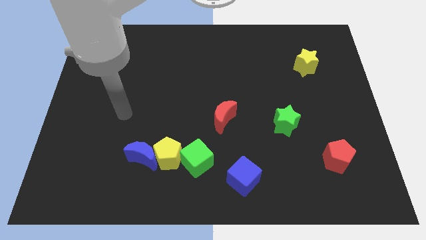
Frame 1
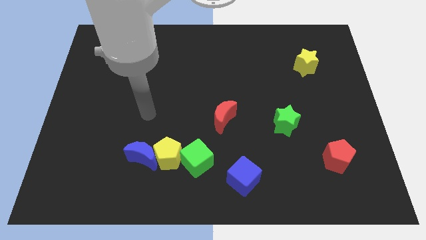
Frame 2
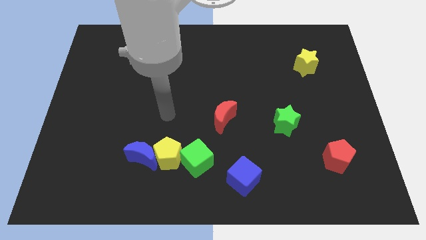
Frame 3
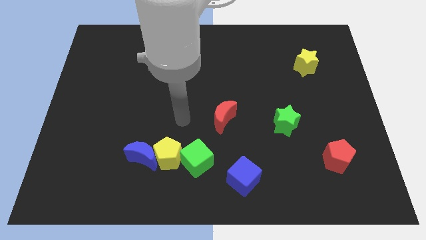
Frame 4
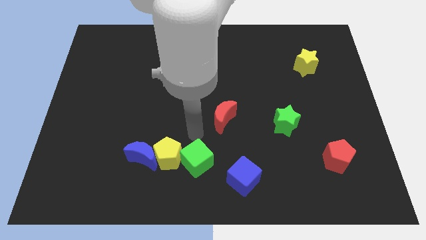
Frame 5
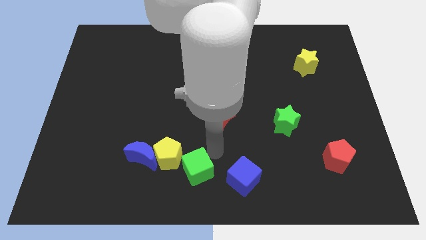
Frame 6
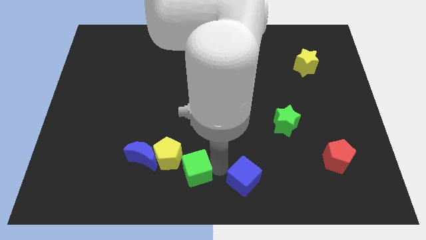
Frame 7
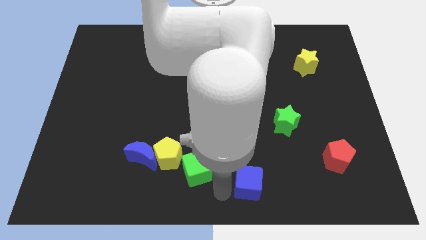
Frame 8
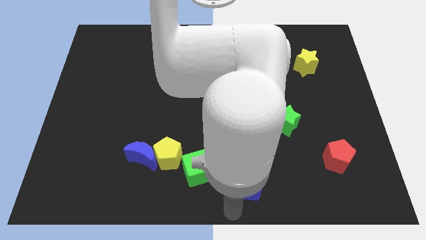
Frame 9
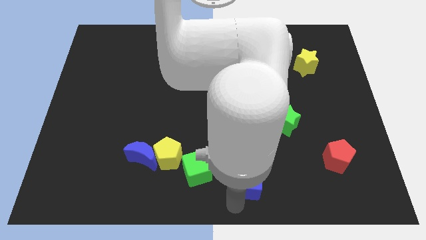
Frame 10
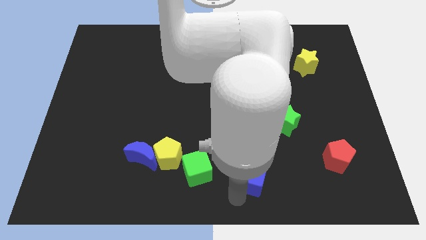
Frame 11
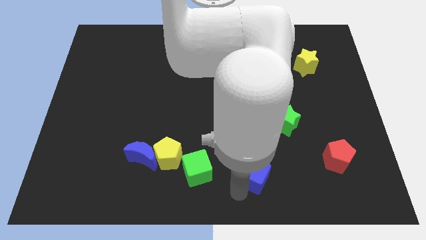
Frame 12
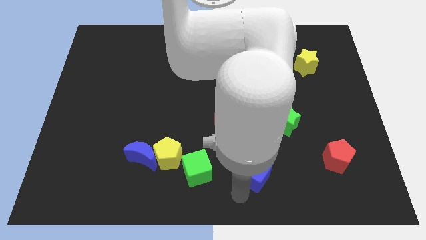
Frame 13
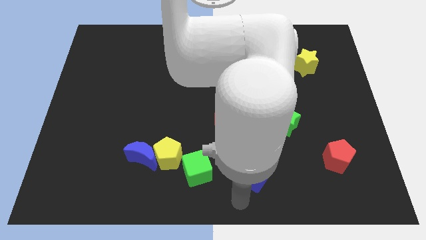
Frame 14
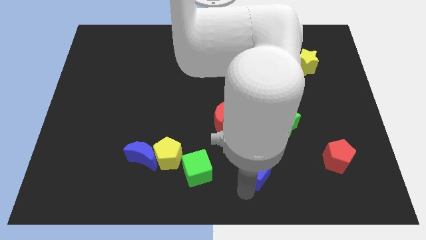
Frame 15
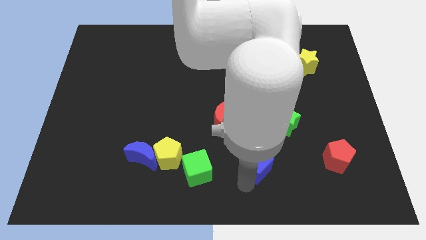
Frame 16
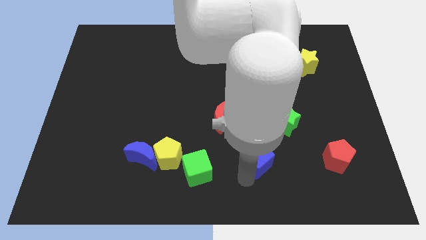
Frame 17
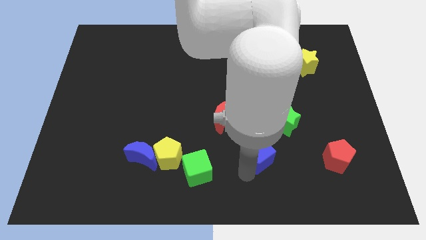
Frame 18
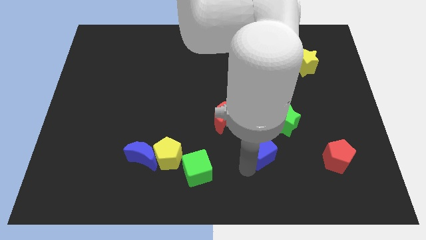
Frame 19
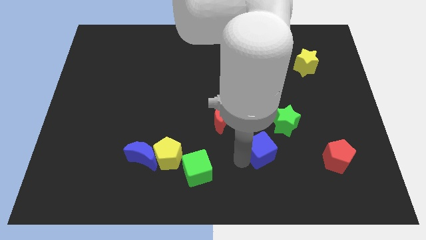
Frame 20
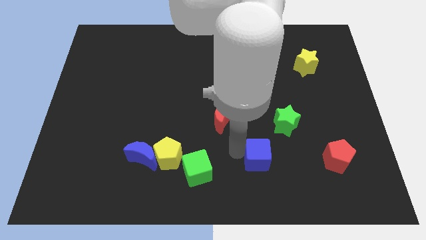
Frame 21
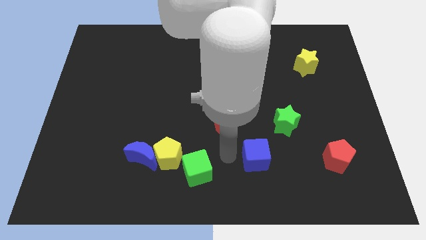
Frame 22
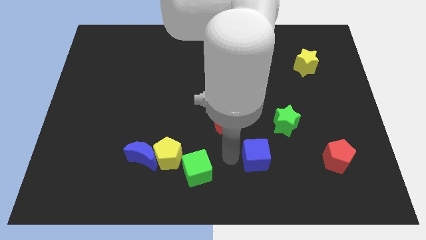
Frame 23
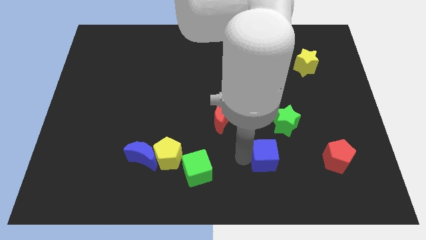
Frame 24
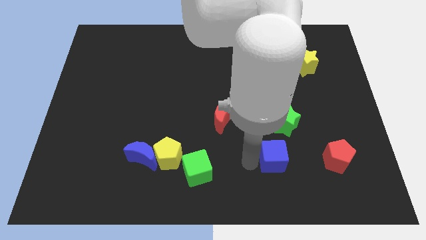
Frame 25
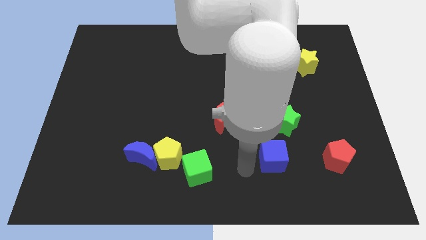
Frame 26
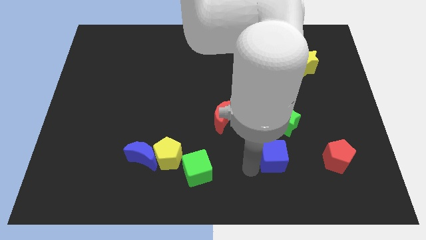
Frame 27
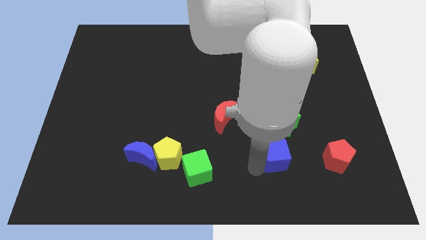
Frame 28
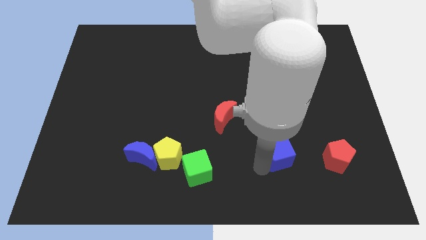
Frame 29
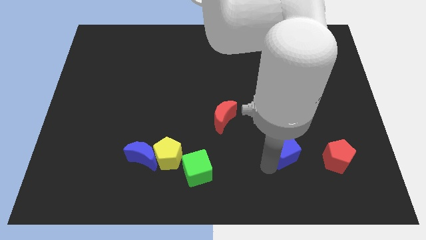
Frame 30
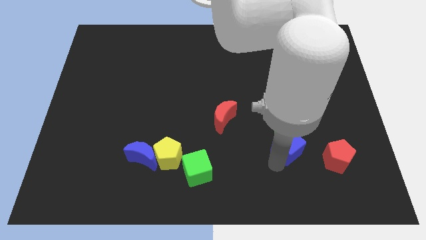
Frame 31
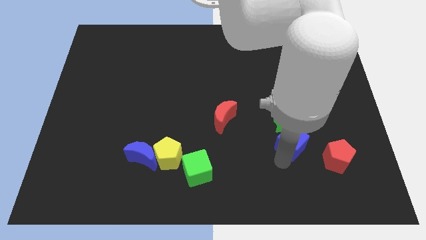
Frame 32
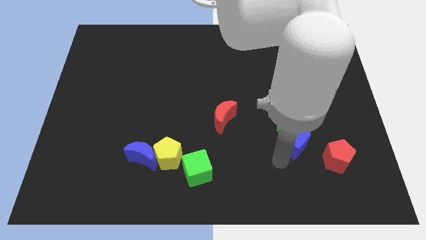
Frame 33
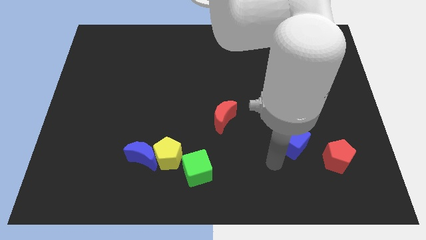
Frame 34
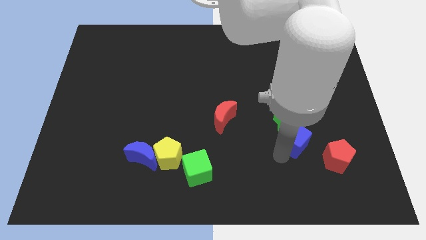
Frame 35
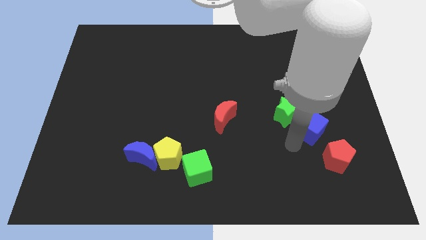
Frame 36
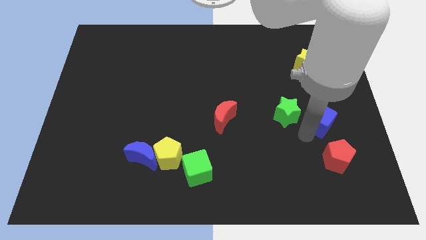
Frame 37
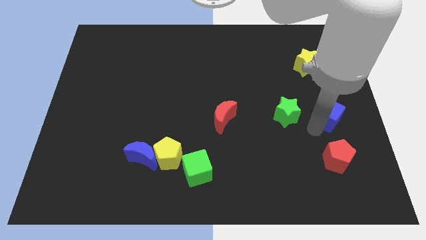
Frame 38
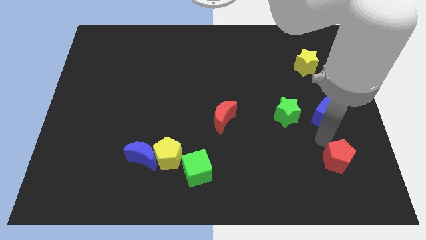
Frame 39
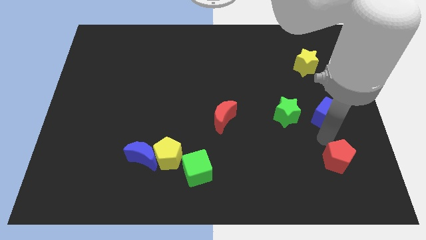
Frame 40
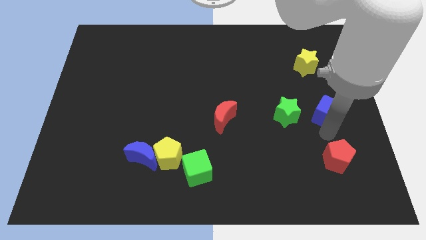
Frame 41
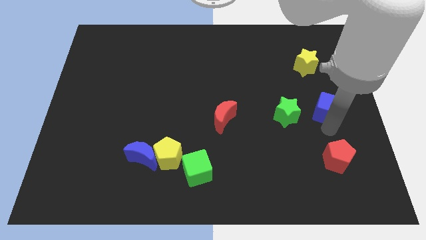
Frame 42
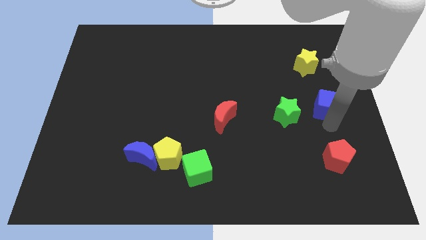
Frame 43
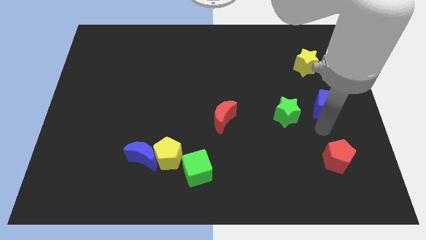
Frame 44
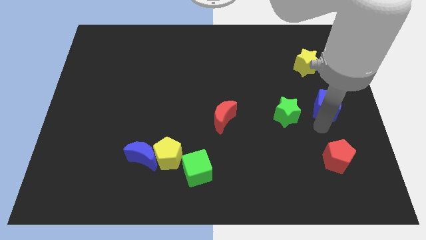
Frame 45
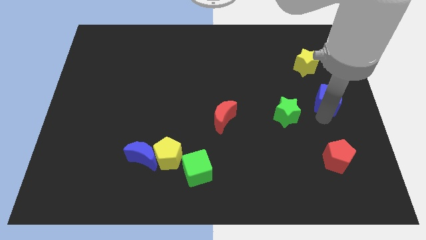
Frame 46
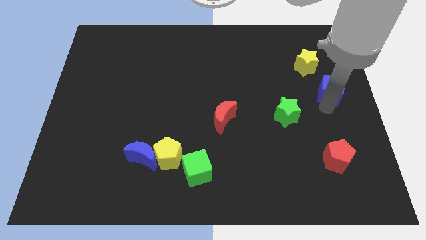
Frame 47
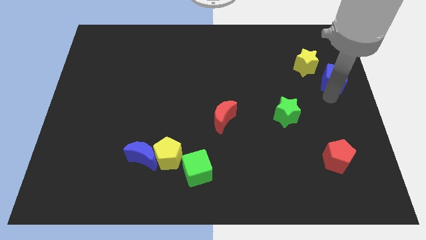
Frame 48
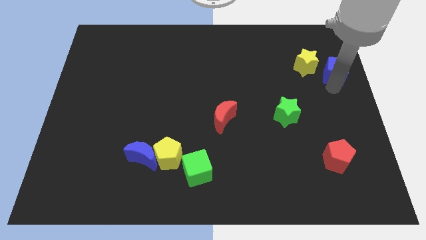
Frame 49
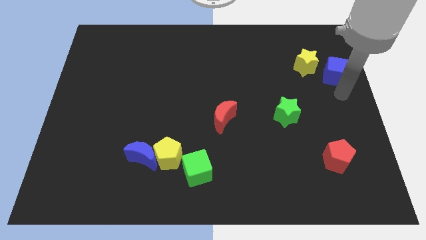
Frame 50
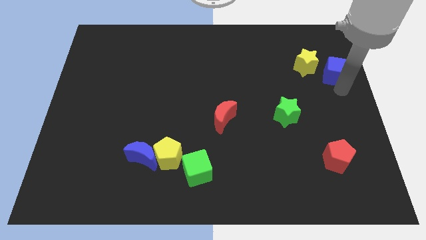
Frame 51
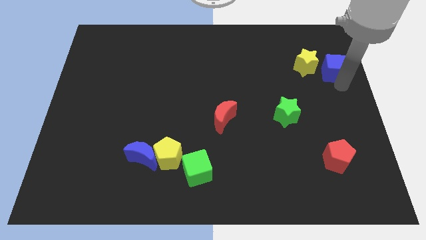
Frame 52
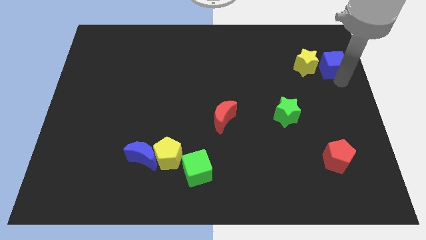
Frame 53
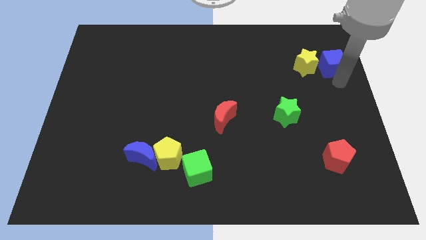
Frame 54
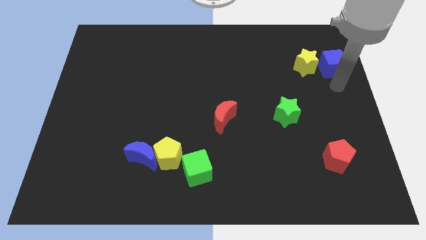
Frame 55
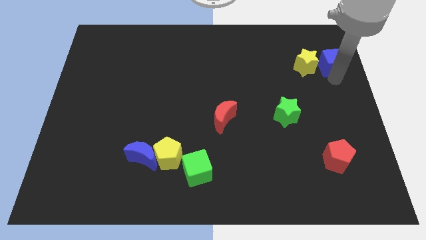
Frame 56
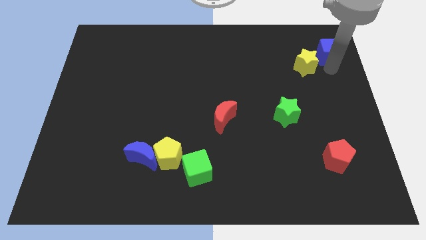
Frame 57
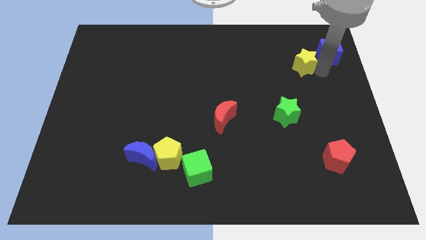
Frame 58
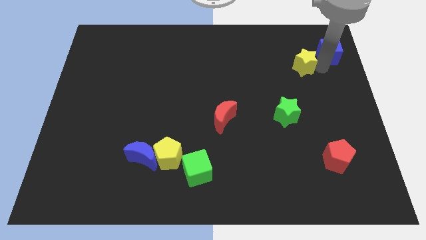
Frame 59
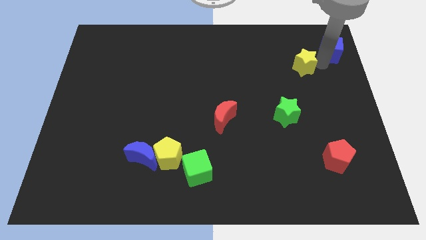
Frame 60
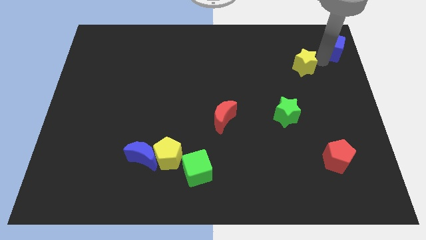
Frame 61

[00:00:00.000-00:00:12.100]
put the blue cube to the top right corner

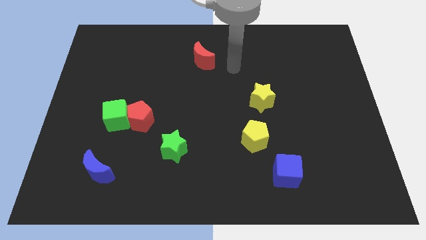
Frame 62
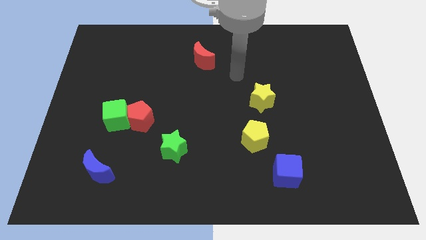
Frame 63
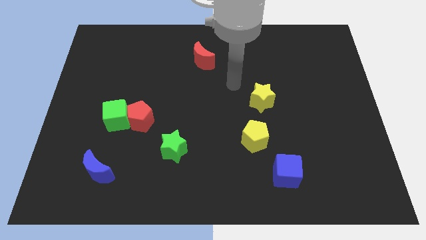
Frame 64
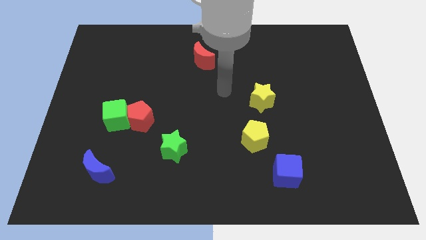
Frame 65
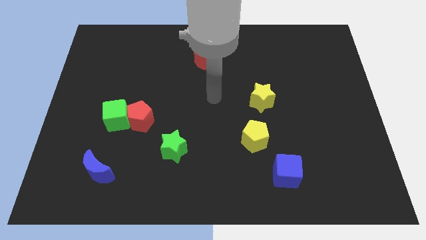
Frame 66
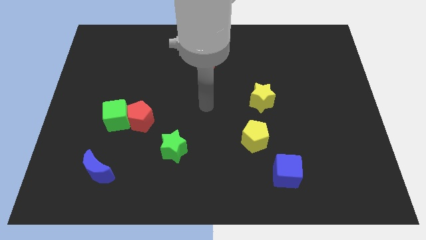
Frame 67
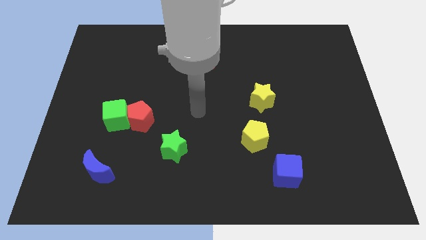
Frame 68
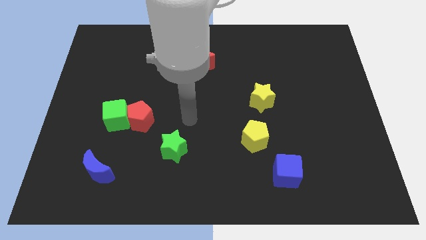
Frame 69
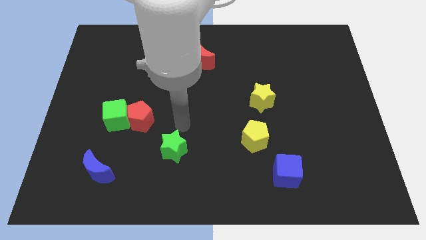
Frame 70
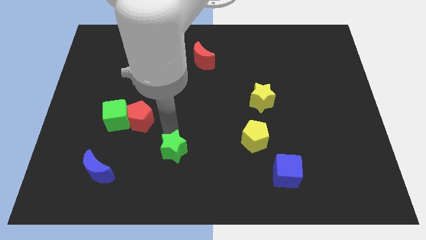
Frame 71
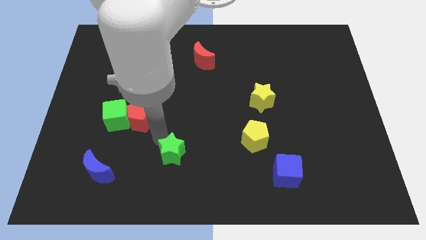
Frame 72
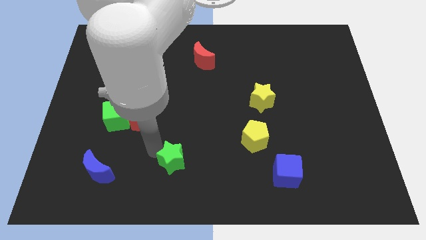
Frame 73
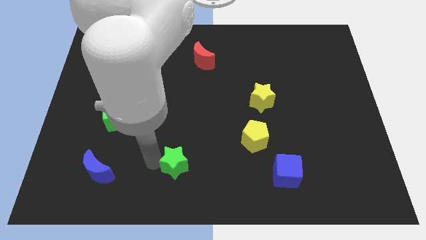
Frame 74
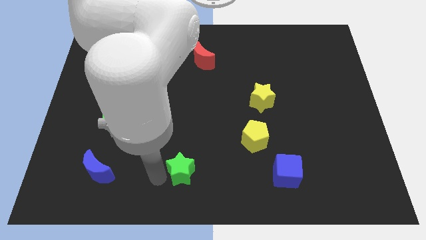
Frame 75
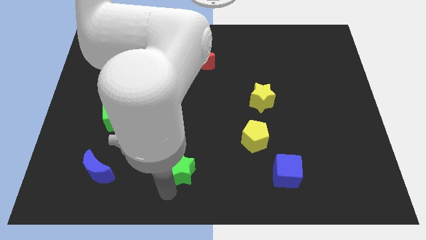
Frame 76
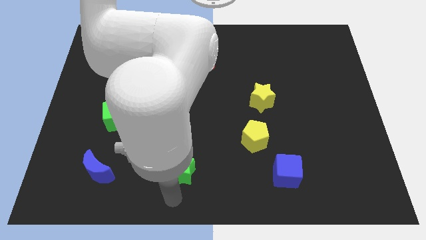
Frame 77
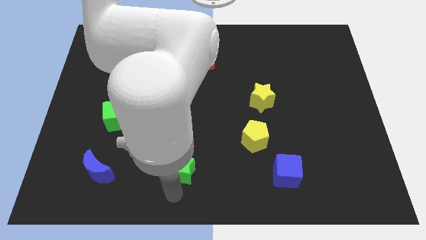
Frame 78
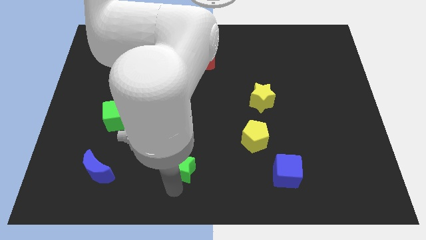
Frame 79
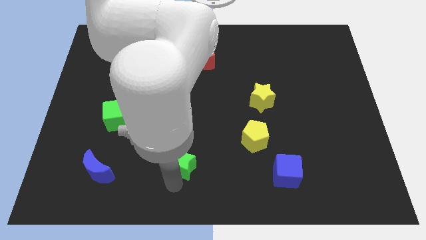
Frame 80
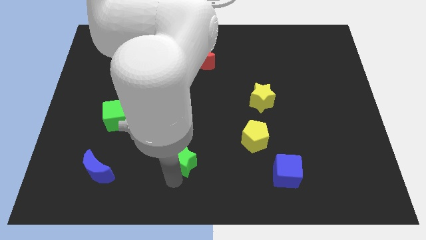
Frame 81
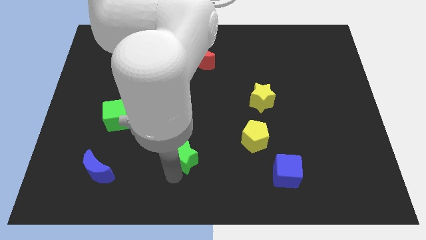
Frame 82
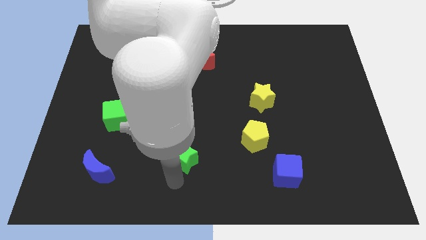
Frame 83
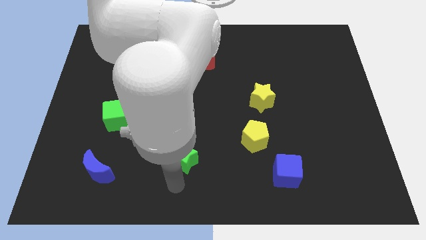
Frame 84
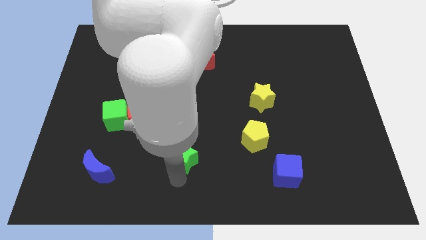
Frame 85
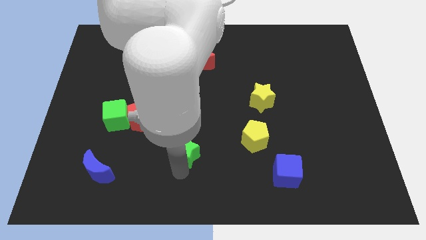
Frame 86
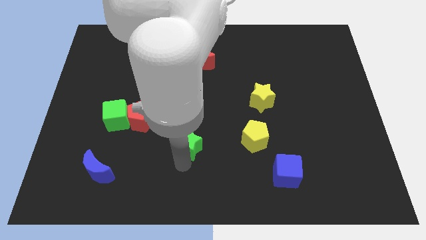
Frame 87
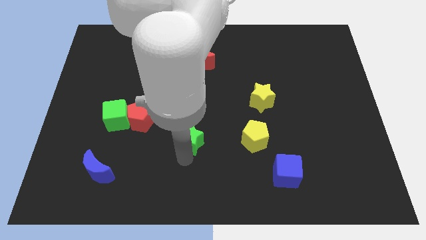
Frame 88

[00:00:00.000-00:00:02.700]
slide the green star to the center of the board
